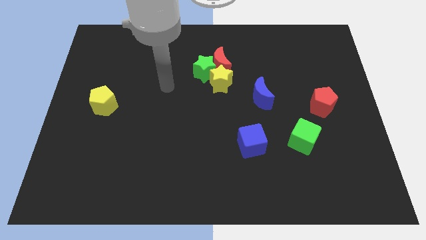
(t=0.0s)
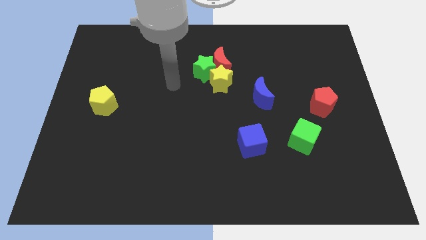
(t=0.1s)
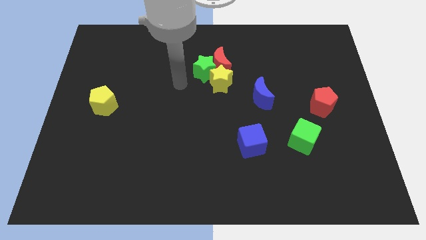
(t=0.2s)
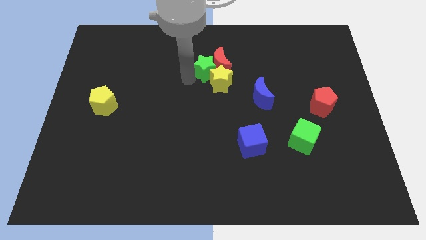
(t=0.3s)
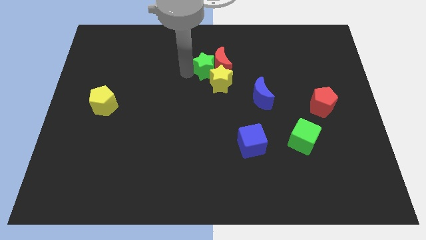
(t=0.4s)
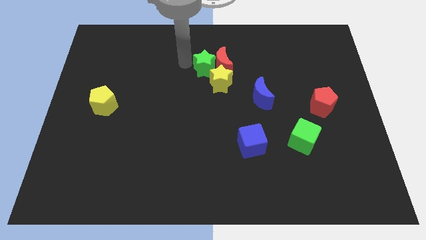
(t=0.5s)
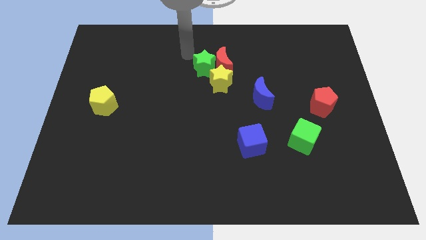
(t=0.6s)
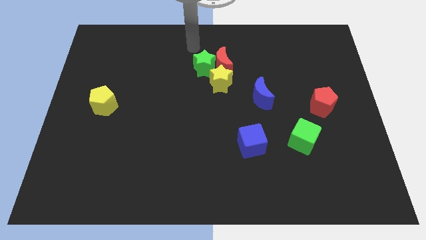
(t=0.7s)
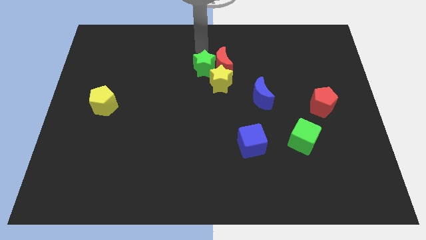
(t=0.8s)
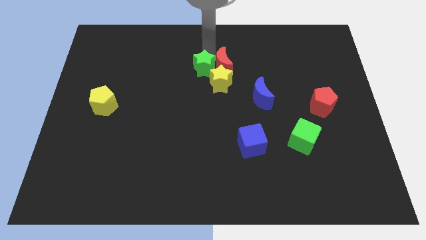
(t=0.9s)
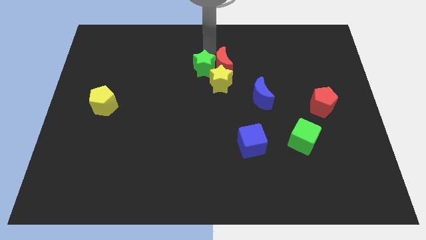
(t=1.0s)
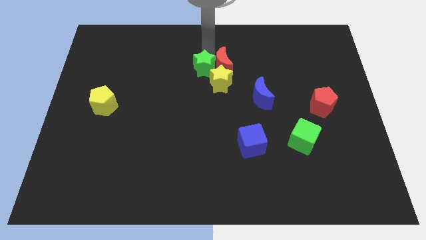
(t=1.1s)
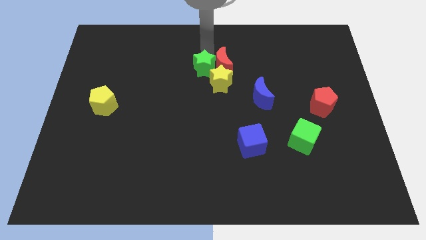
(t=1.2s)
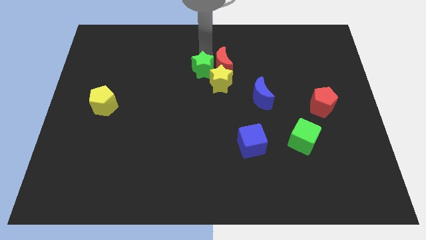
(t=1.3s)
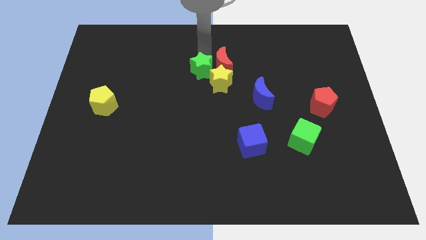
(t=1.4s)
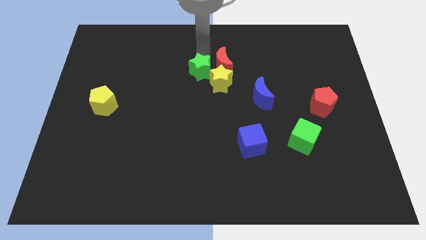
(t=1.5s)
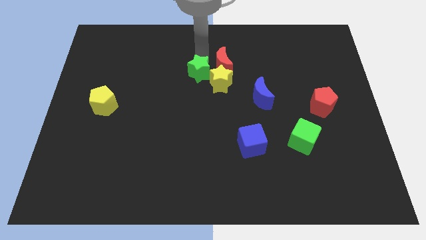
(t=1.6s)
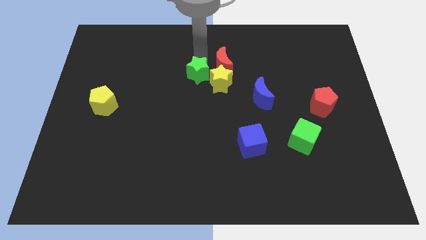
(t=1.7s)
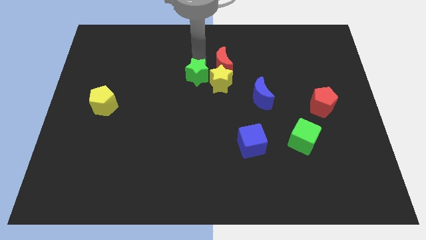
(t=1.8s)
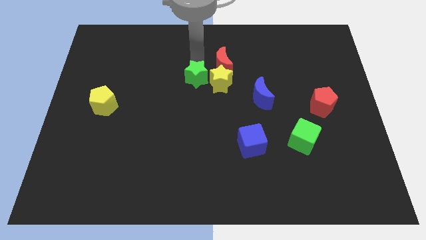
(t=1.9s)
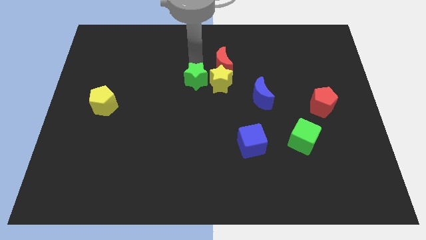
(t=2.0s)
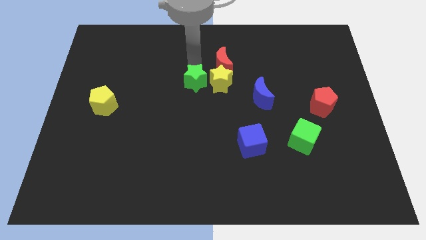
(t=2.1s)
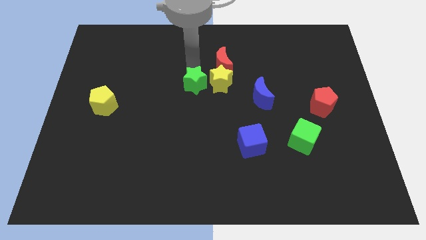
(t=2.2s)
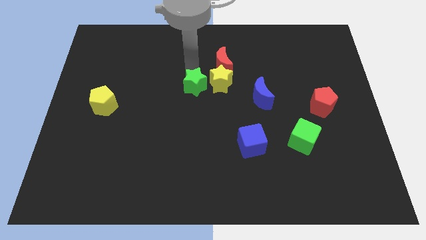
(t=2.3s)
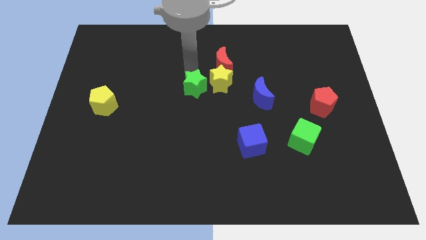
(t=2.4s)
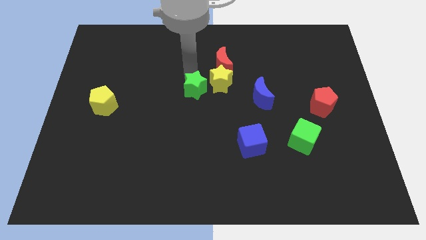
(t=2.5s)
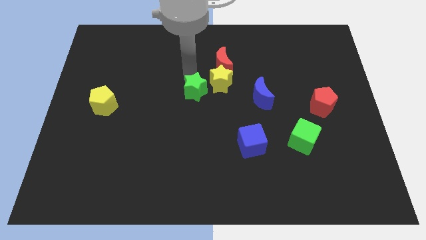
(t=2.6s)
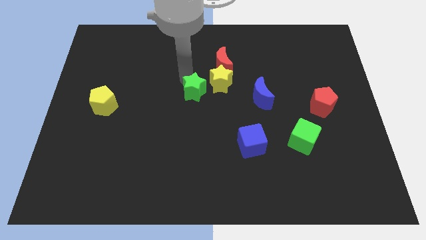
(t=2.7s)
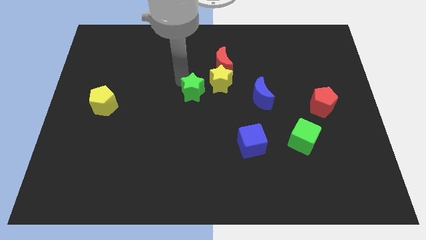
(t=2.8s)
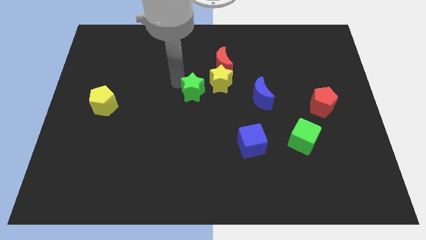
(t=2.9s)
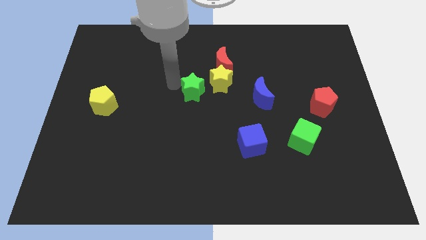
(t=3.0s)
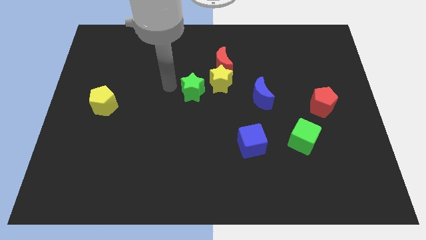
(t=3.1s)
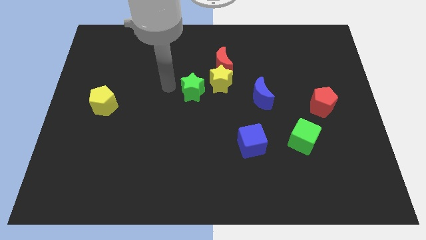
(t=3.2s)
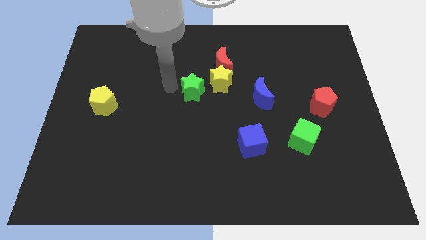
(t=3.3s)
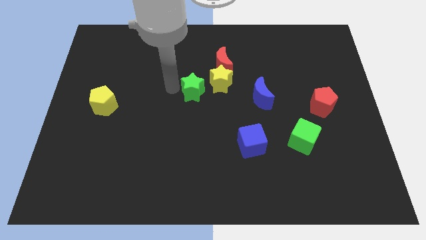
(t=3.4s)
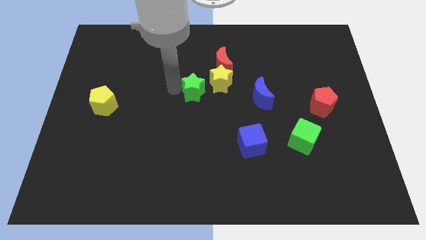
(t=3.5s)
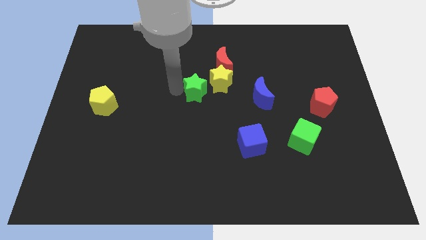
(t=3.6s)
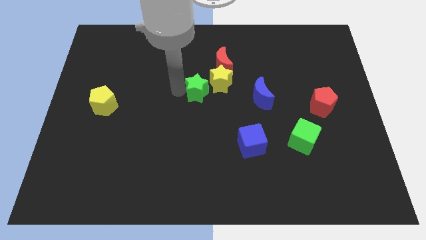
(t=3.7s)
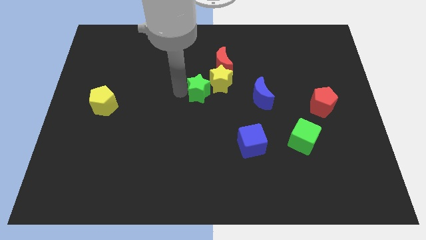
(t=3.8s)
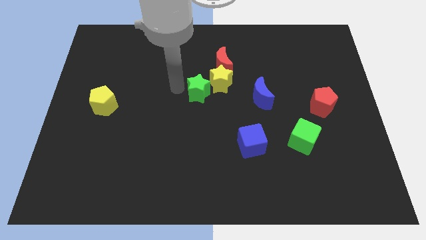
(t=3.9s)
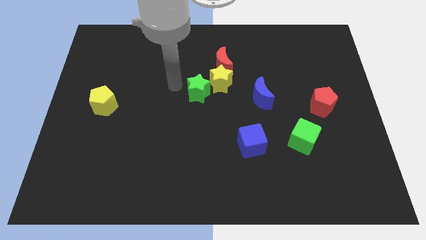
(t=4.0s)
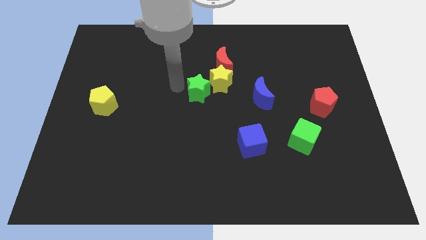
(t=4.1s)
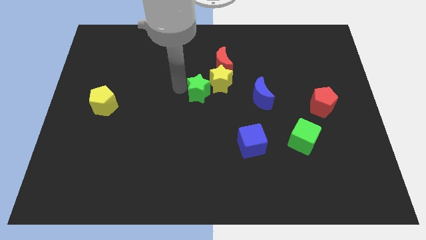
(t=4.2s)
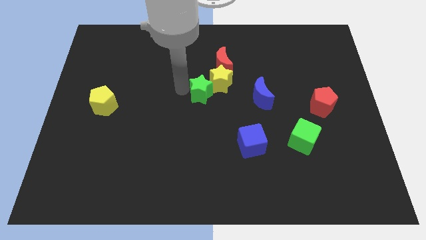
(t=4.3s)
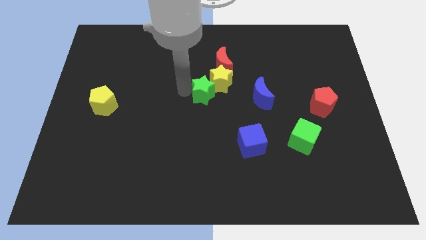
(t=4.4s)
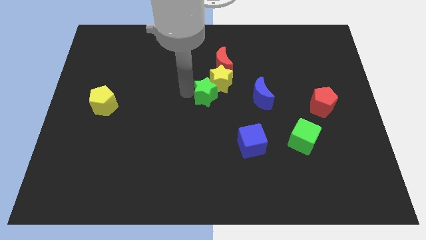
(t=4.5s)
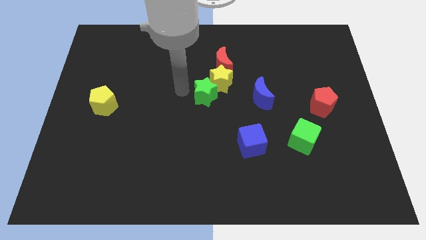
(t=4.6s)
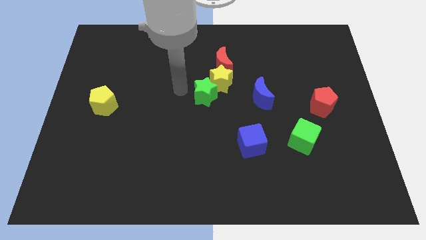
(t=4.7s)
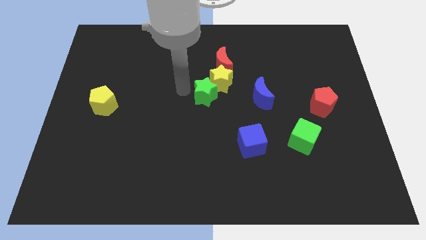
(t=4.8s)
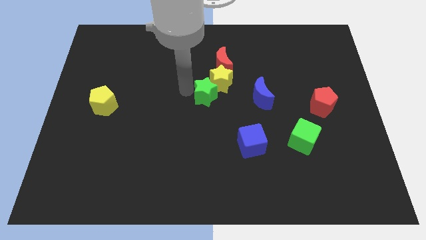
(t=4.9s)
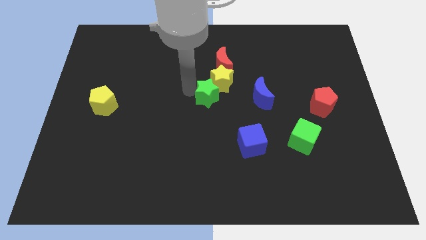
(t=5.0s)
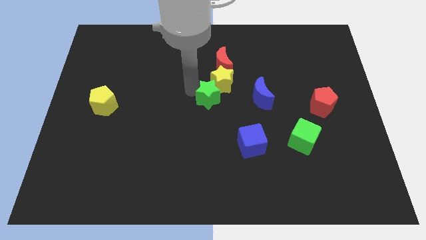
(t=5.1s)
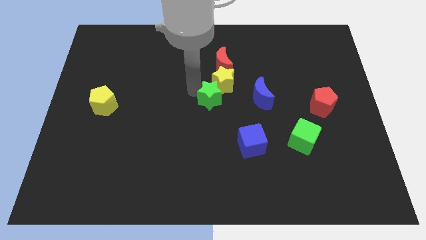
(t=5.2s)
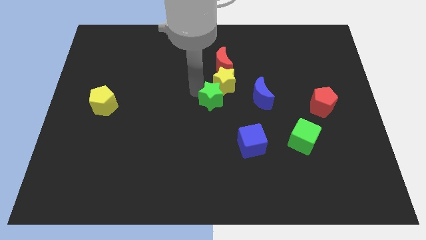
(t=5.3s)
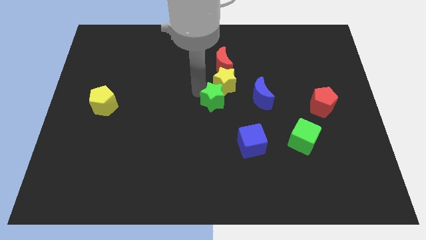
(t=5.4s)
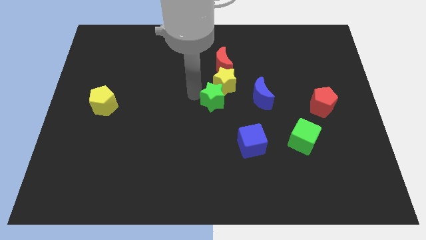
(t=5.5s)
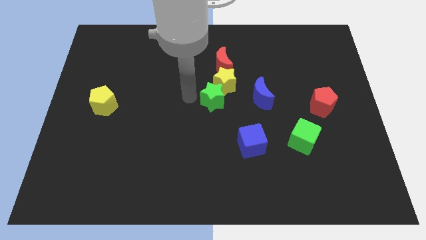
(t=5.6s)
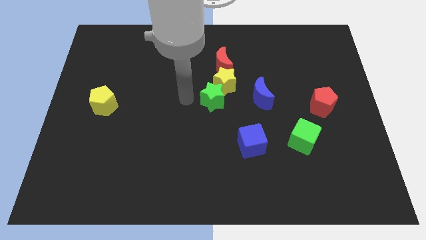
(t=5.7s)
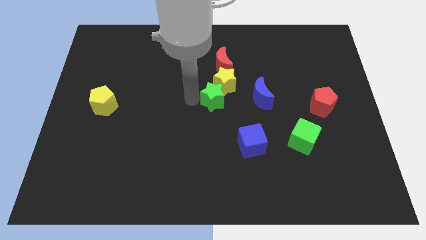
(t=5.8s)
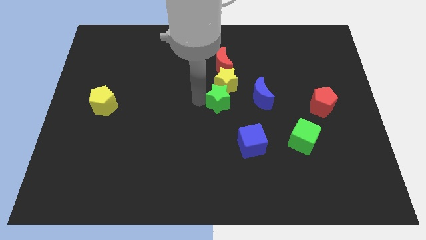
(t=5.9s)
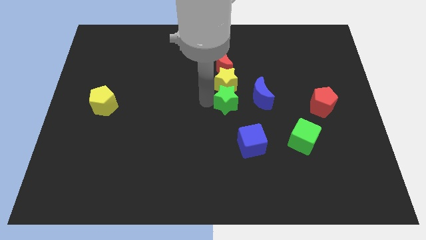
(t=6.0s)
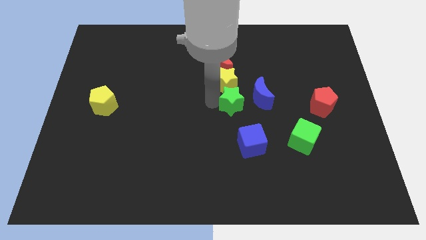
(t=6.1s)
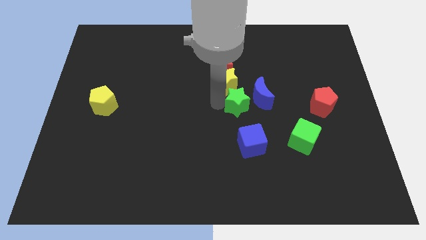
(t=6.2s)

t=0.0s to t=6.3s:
push the green star close to the blue moon
